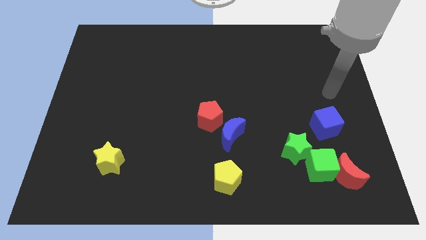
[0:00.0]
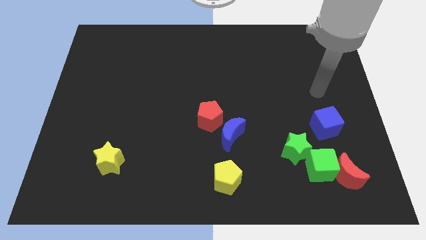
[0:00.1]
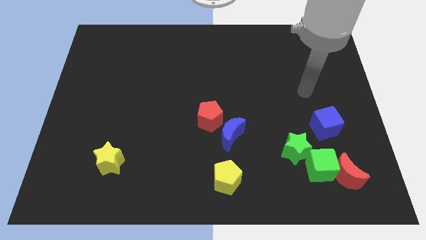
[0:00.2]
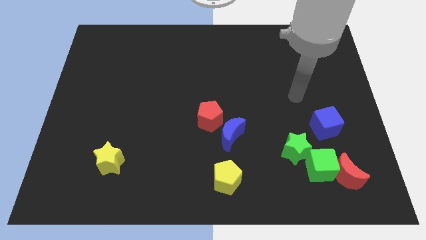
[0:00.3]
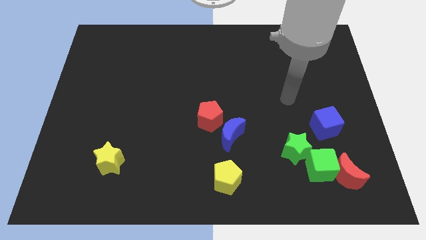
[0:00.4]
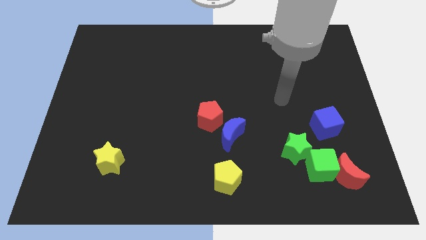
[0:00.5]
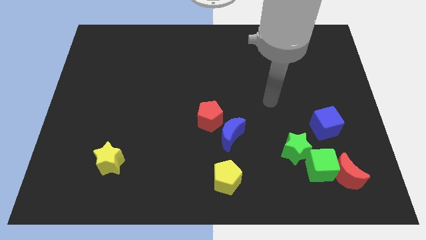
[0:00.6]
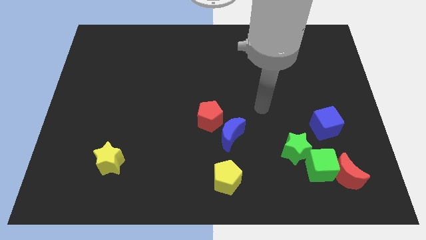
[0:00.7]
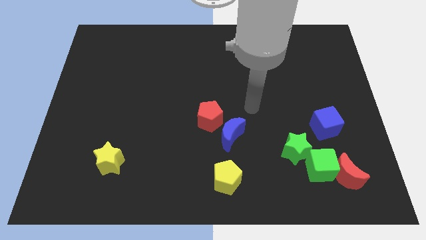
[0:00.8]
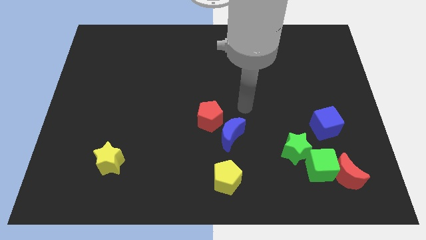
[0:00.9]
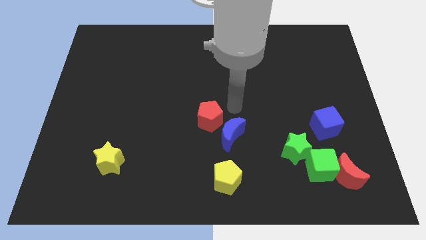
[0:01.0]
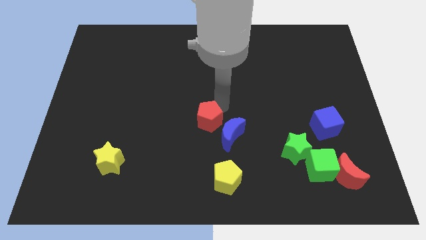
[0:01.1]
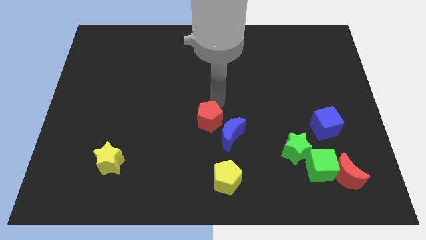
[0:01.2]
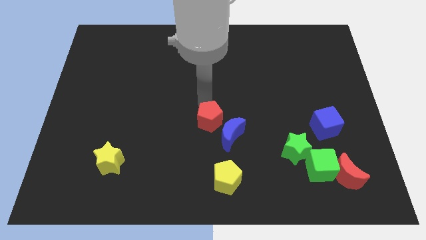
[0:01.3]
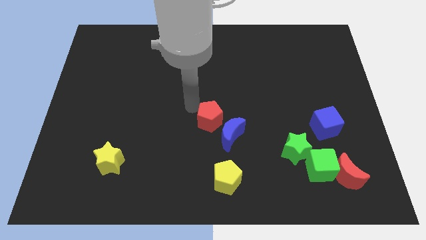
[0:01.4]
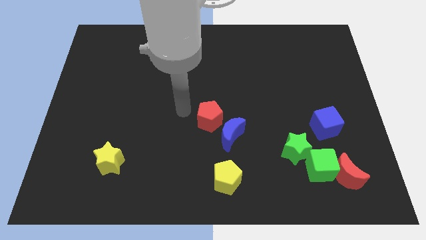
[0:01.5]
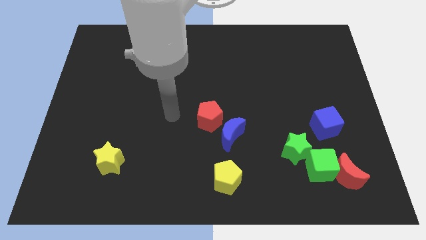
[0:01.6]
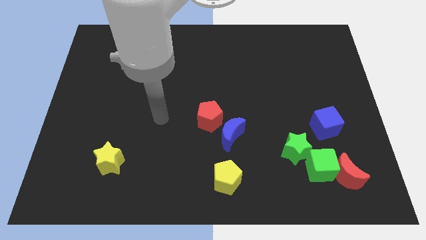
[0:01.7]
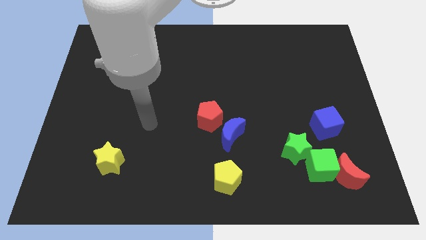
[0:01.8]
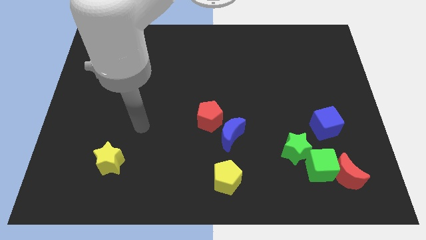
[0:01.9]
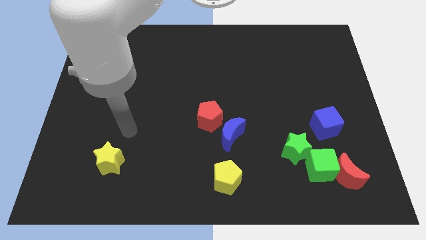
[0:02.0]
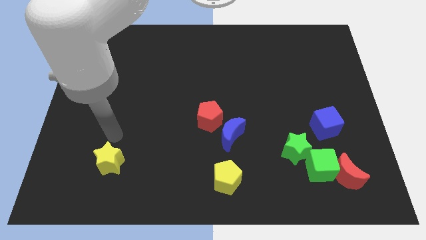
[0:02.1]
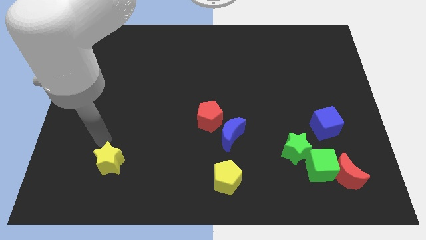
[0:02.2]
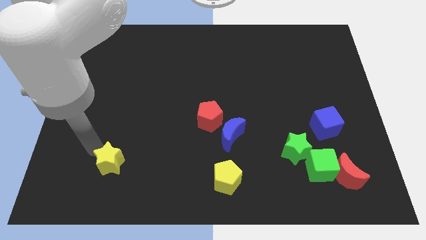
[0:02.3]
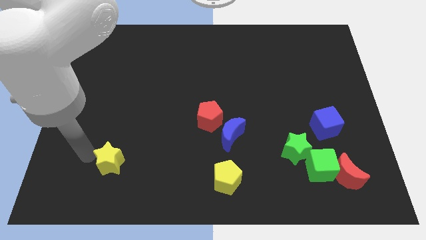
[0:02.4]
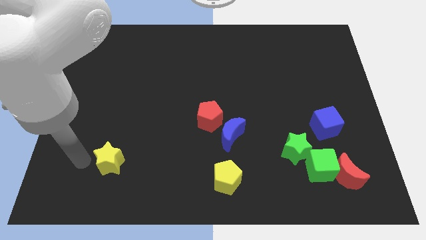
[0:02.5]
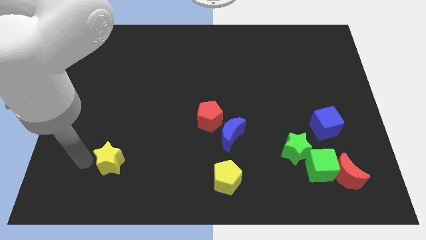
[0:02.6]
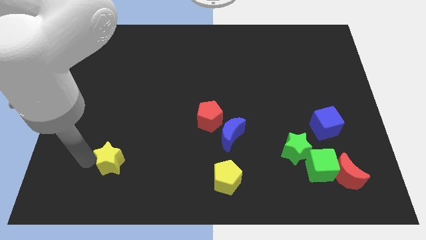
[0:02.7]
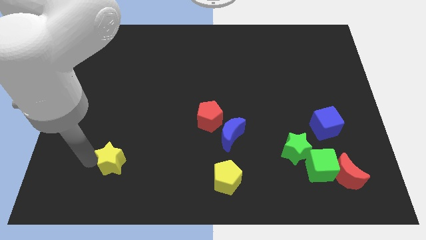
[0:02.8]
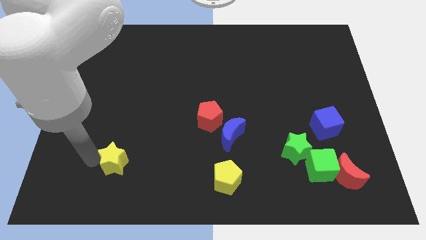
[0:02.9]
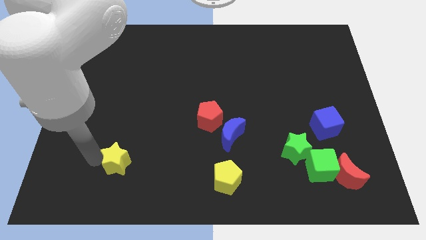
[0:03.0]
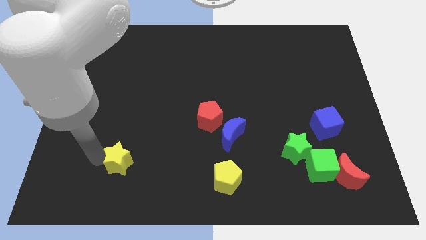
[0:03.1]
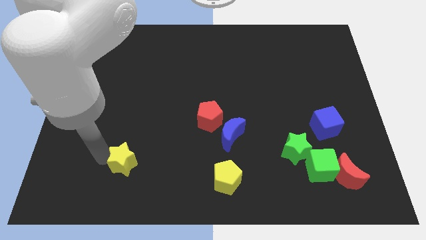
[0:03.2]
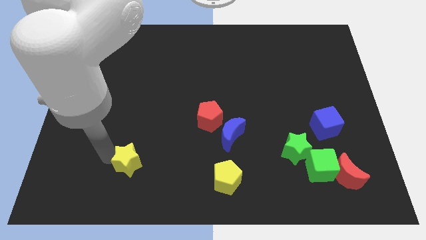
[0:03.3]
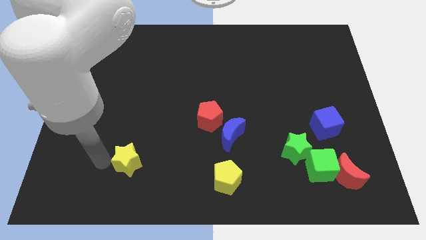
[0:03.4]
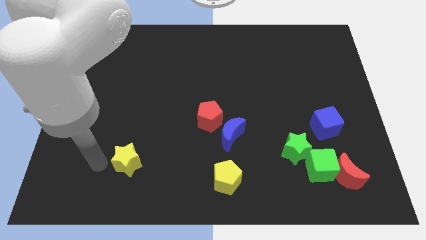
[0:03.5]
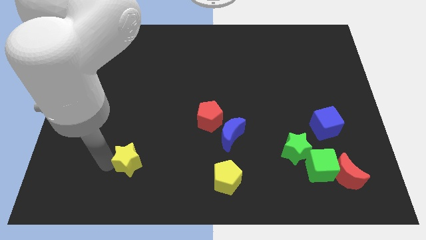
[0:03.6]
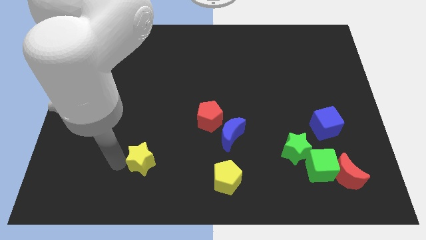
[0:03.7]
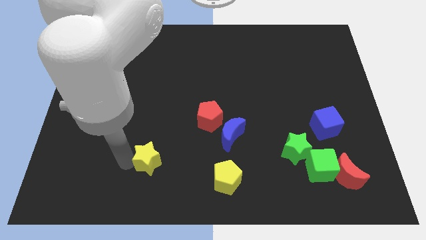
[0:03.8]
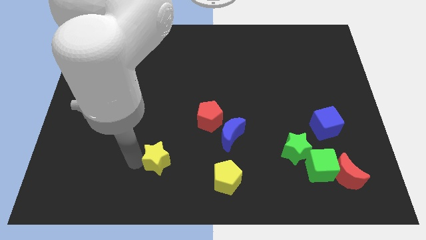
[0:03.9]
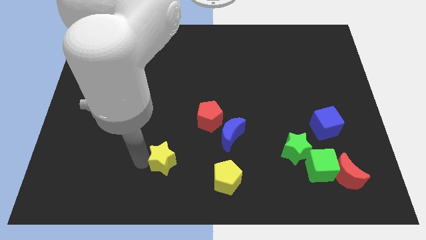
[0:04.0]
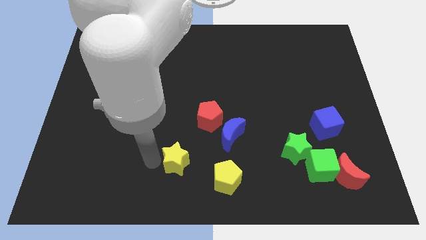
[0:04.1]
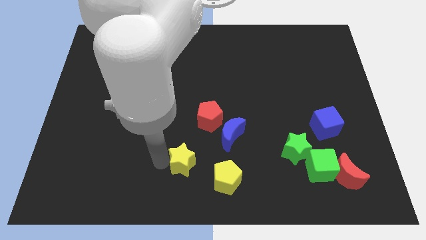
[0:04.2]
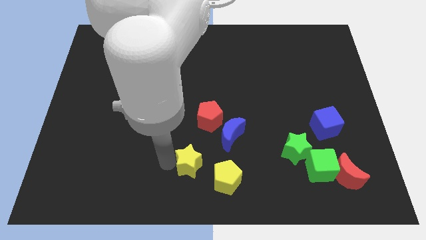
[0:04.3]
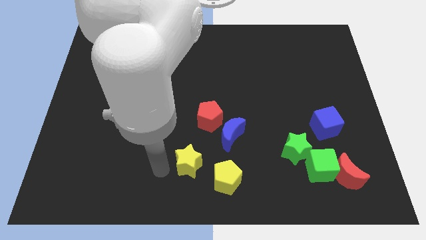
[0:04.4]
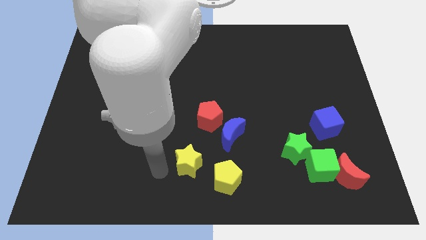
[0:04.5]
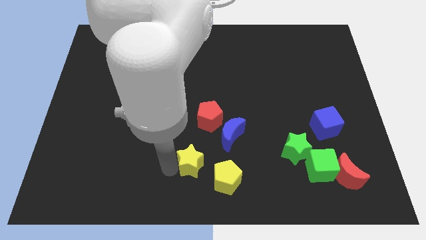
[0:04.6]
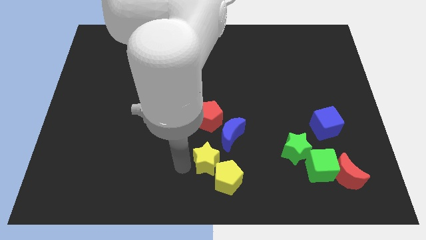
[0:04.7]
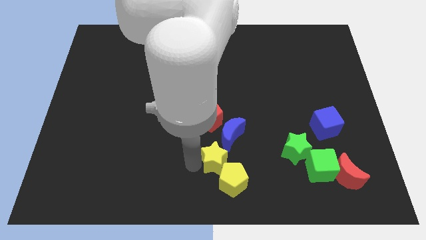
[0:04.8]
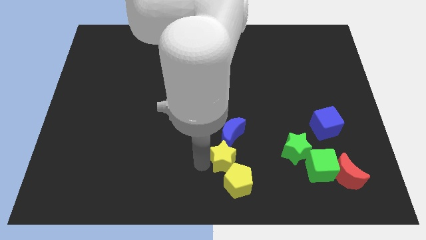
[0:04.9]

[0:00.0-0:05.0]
slide the yellow star left of the green star

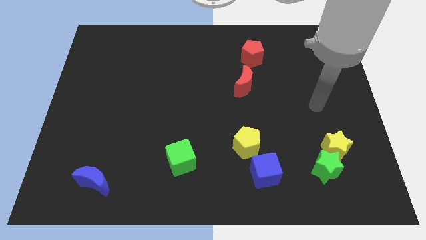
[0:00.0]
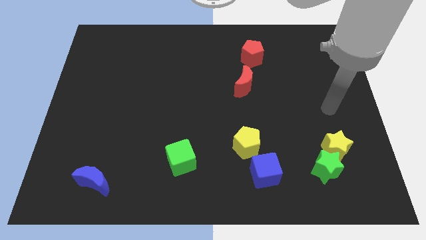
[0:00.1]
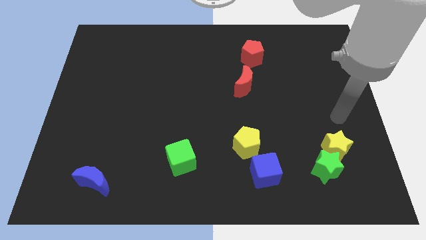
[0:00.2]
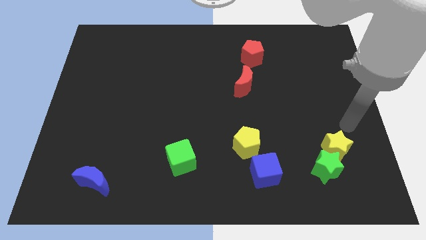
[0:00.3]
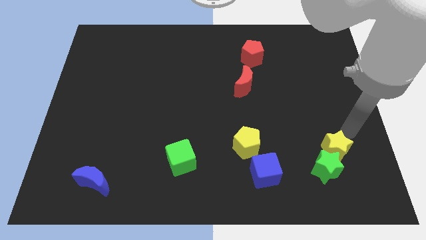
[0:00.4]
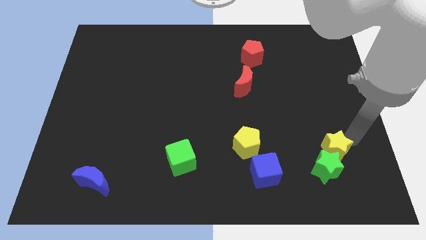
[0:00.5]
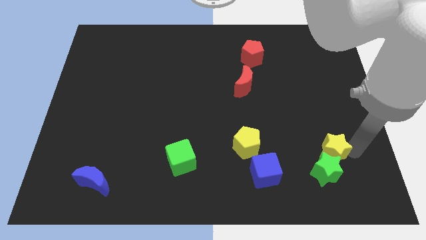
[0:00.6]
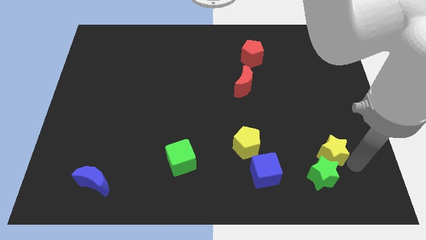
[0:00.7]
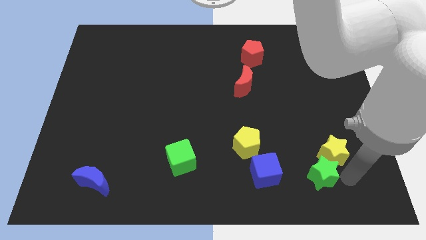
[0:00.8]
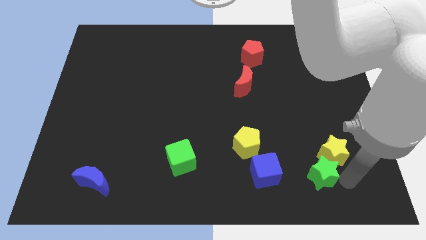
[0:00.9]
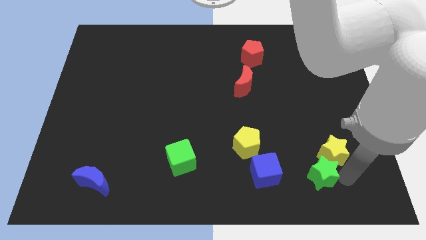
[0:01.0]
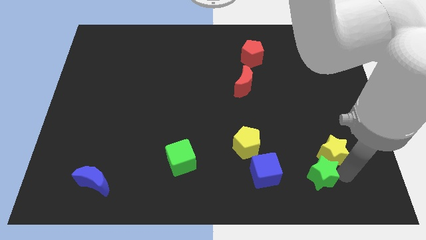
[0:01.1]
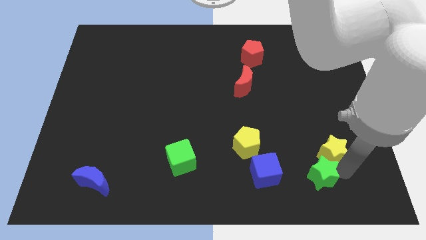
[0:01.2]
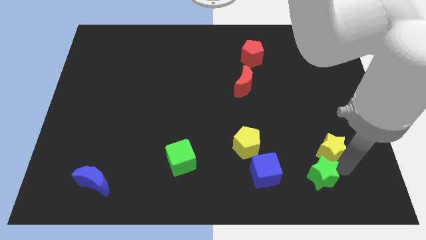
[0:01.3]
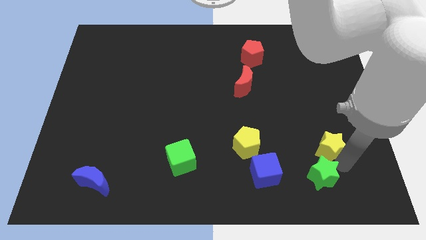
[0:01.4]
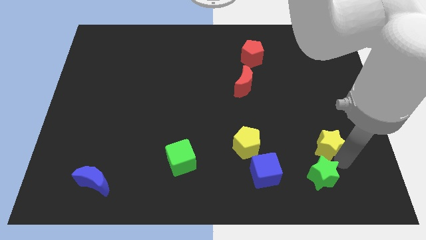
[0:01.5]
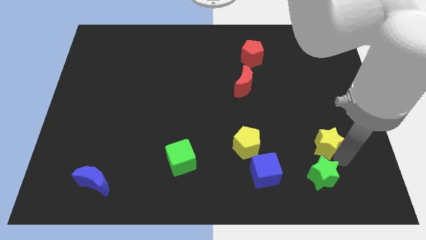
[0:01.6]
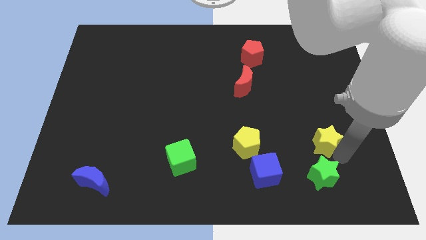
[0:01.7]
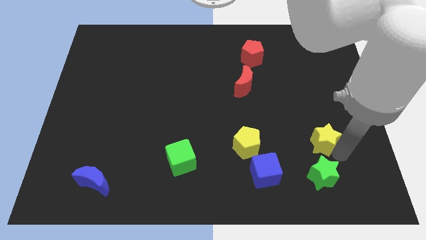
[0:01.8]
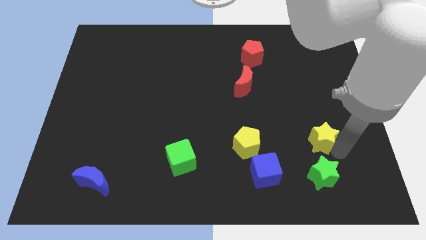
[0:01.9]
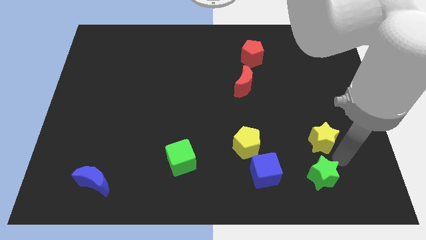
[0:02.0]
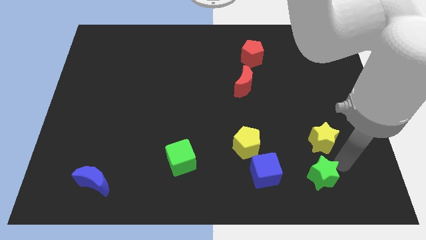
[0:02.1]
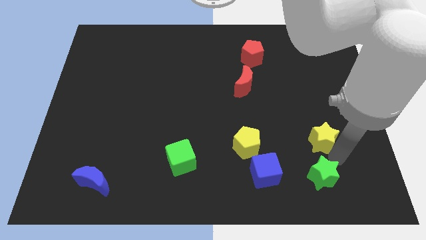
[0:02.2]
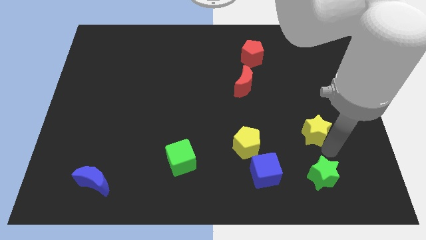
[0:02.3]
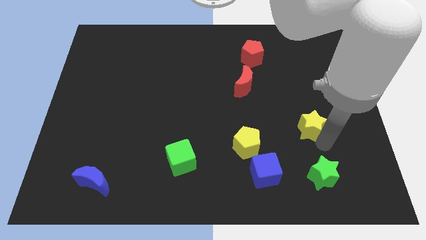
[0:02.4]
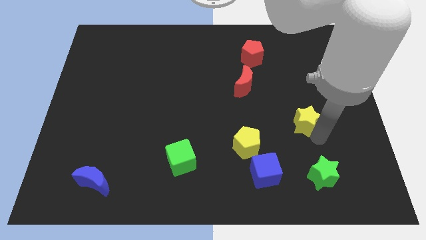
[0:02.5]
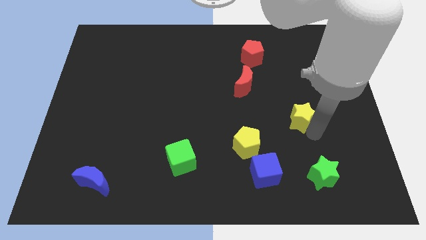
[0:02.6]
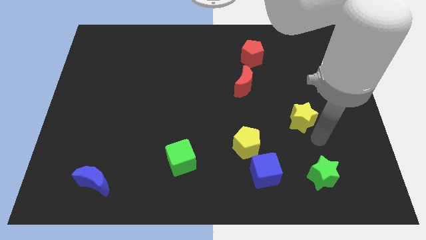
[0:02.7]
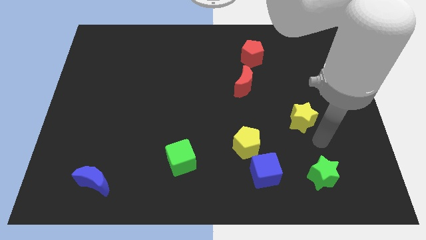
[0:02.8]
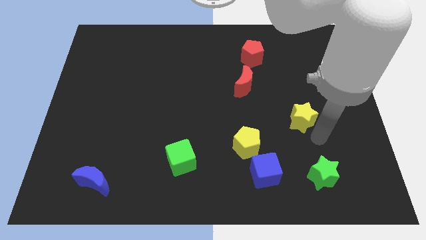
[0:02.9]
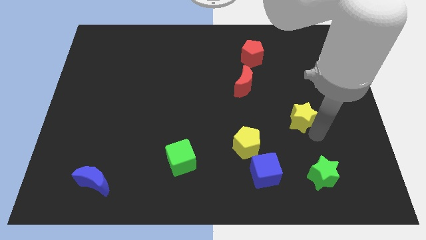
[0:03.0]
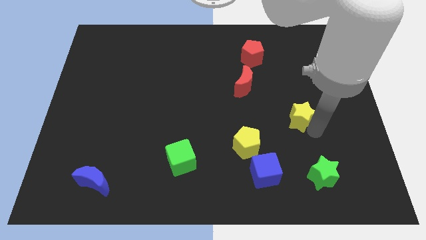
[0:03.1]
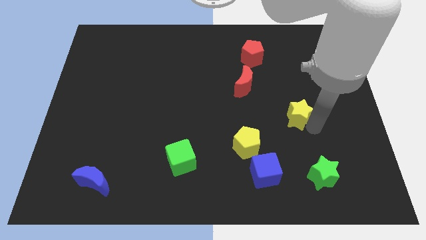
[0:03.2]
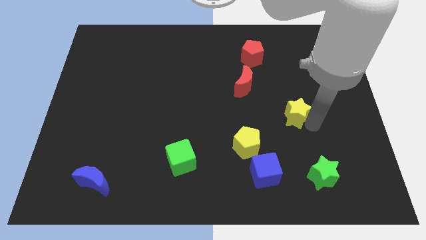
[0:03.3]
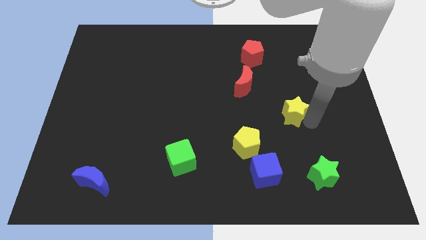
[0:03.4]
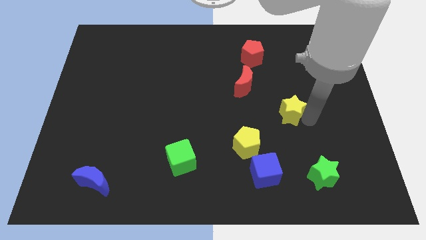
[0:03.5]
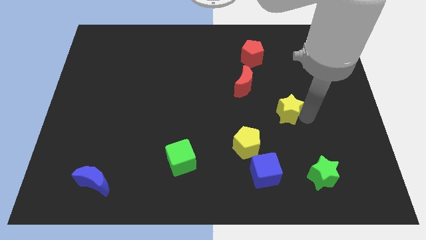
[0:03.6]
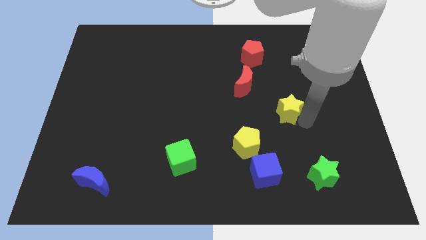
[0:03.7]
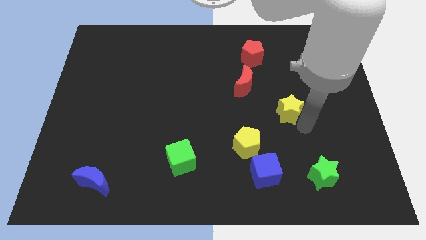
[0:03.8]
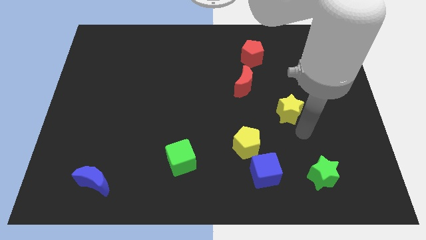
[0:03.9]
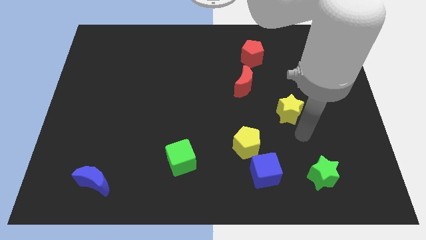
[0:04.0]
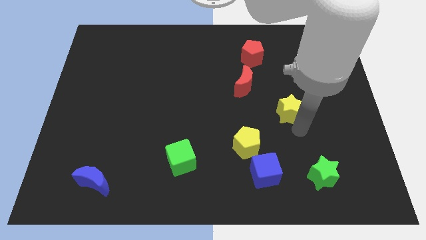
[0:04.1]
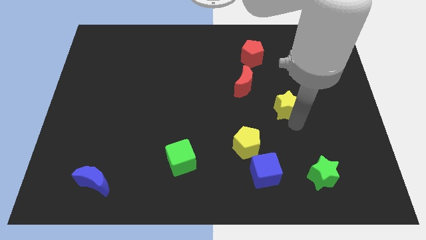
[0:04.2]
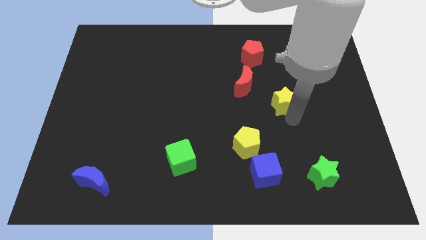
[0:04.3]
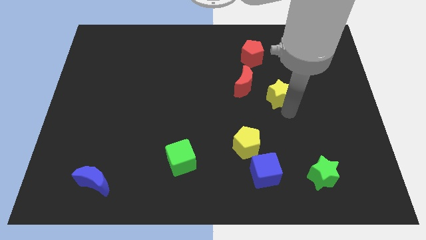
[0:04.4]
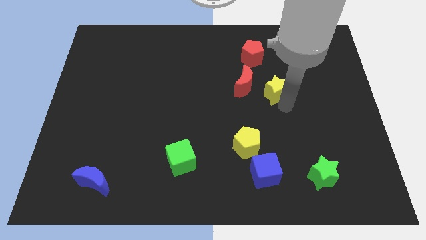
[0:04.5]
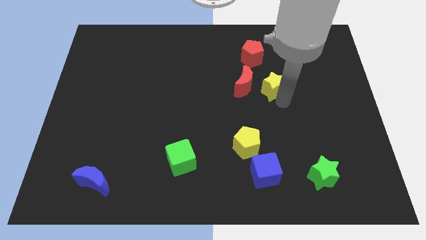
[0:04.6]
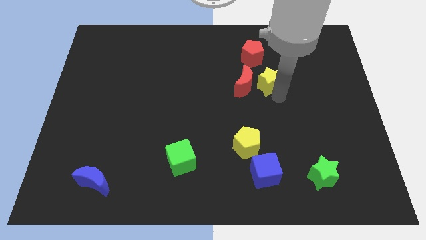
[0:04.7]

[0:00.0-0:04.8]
slide the yellow star to the top right of the red moon
